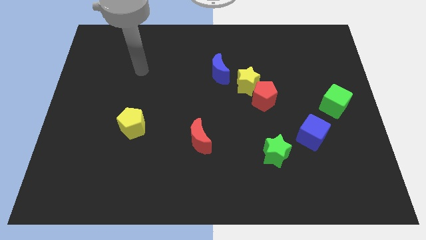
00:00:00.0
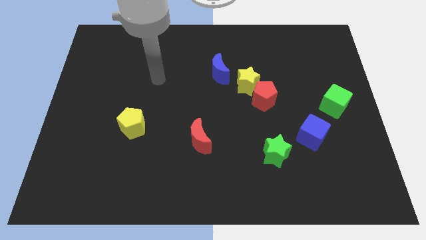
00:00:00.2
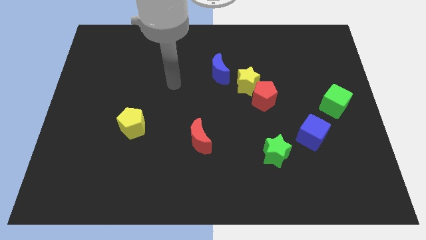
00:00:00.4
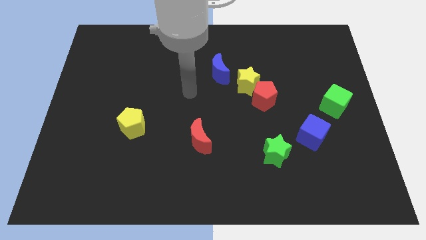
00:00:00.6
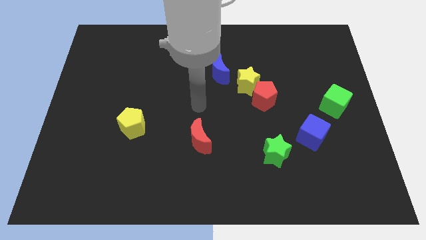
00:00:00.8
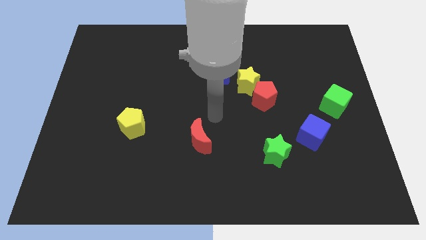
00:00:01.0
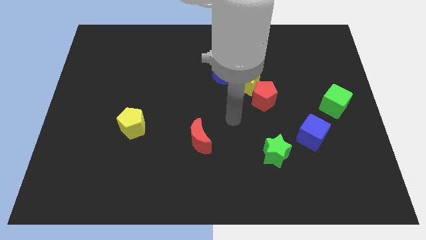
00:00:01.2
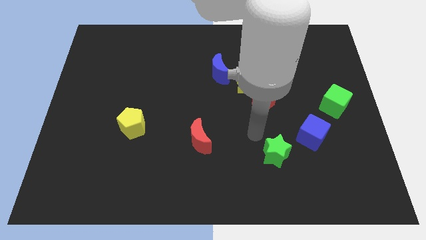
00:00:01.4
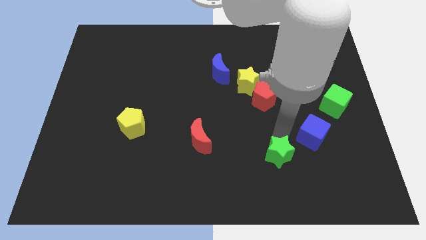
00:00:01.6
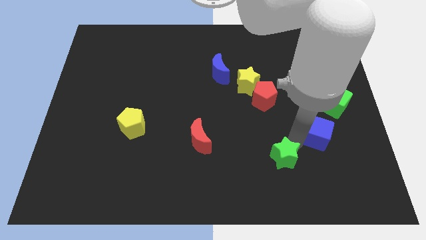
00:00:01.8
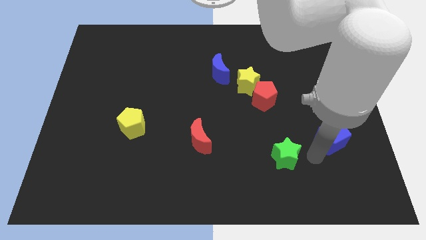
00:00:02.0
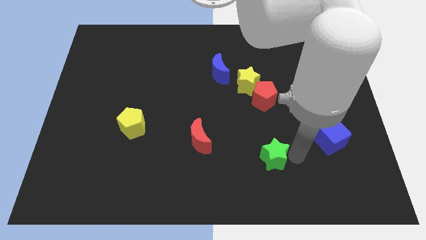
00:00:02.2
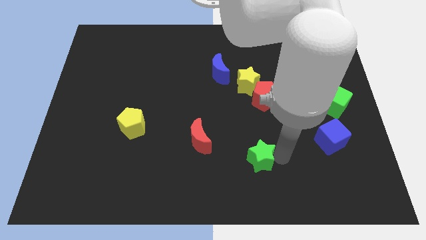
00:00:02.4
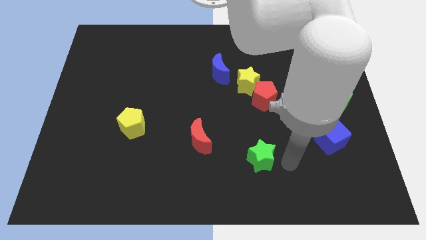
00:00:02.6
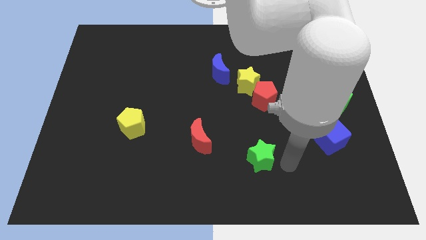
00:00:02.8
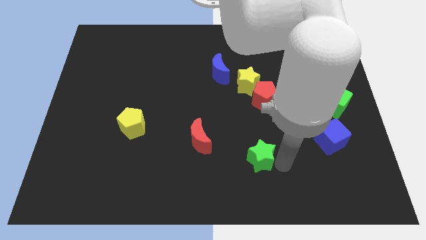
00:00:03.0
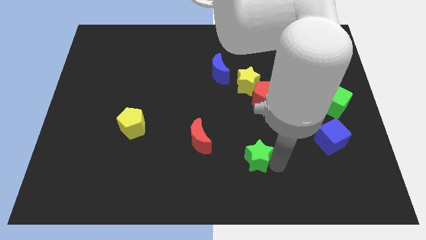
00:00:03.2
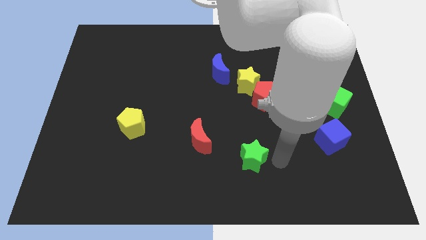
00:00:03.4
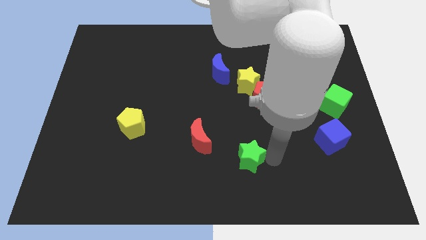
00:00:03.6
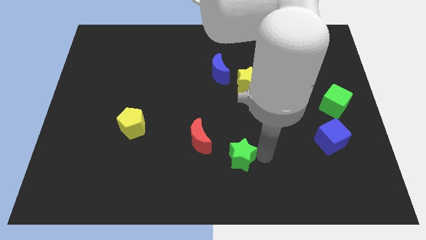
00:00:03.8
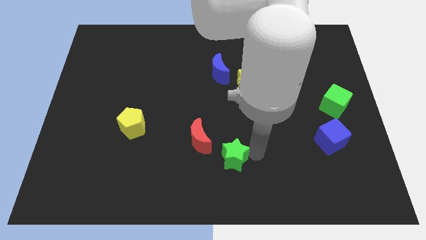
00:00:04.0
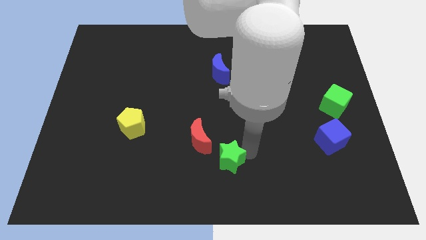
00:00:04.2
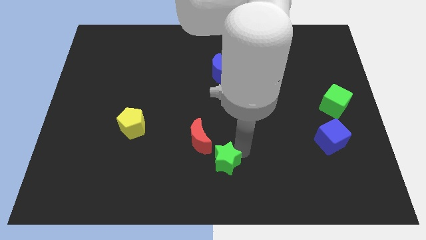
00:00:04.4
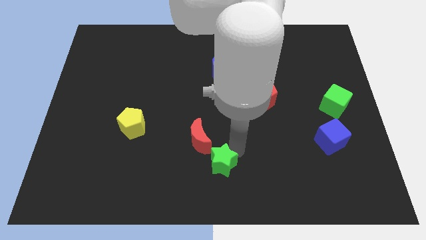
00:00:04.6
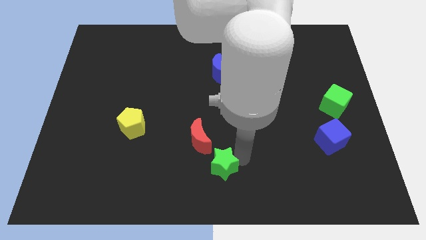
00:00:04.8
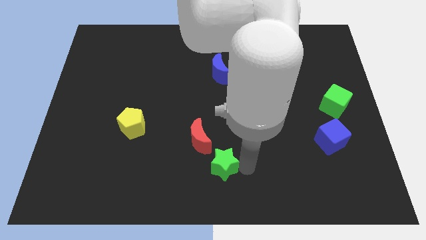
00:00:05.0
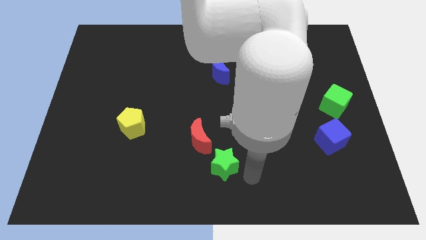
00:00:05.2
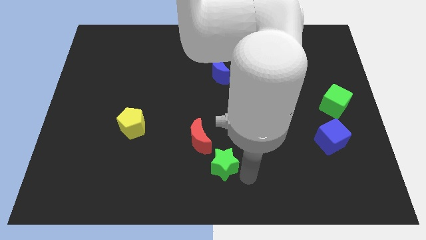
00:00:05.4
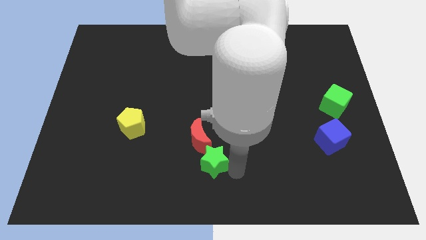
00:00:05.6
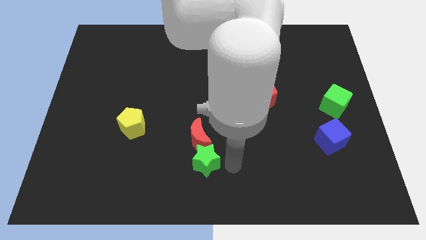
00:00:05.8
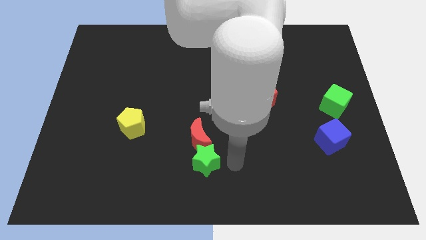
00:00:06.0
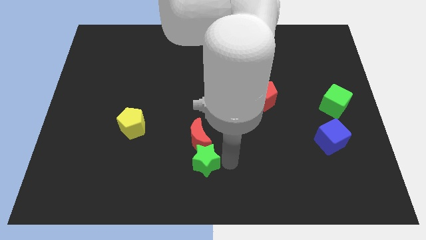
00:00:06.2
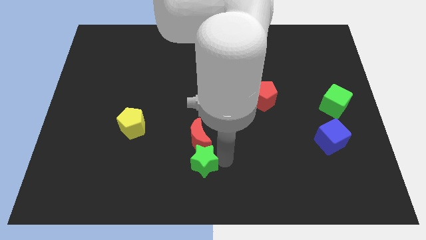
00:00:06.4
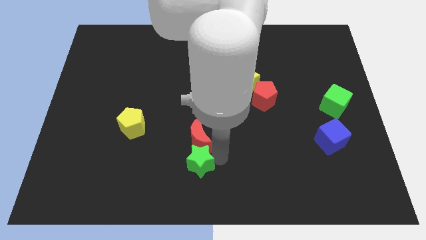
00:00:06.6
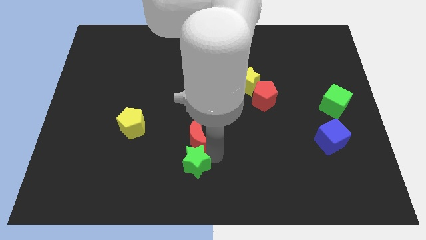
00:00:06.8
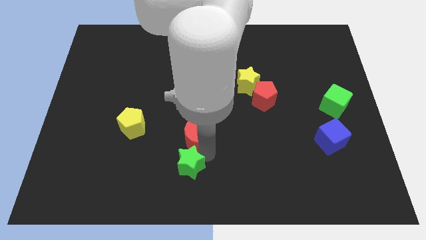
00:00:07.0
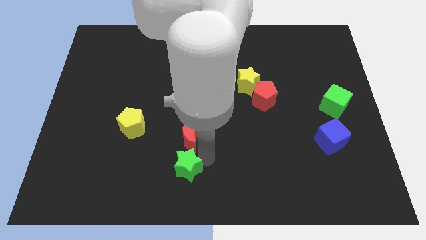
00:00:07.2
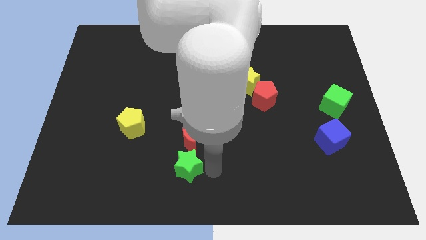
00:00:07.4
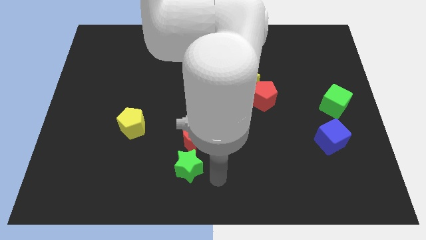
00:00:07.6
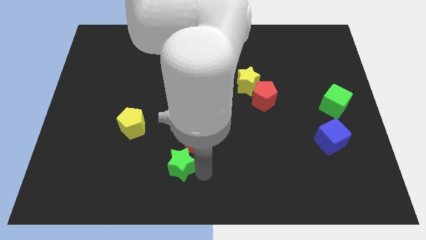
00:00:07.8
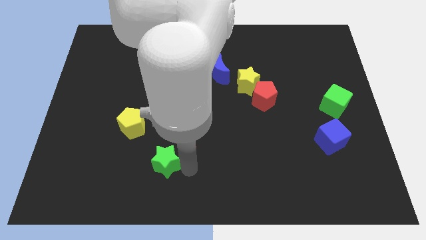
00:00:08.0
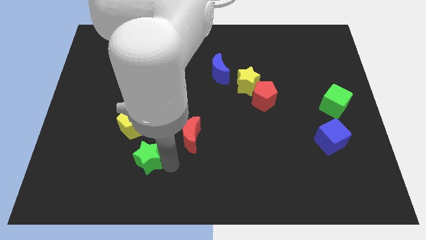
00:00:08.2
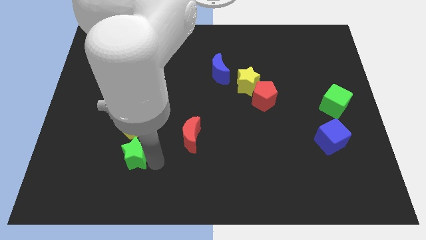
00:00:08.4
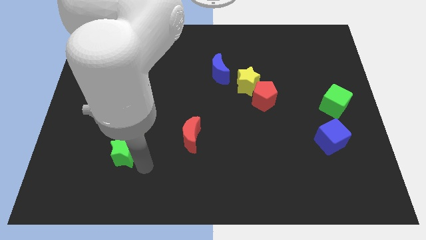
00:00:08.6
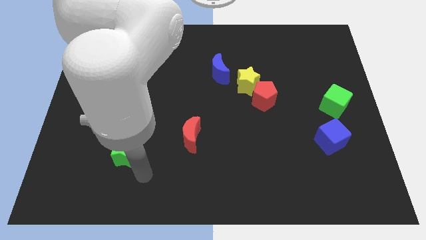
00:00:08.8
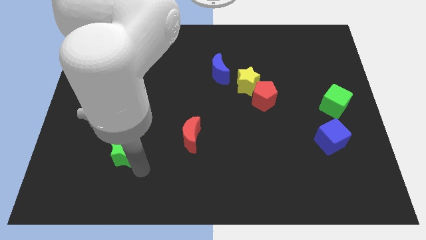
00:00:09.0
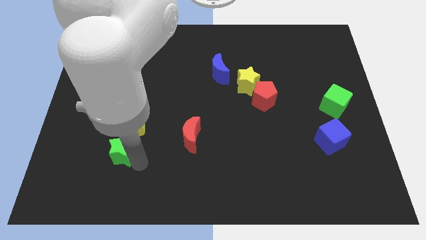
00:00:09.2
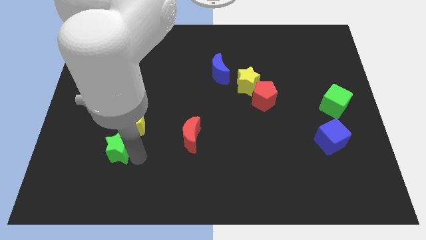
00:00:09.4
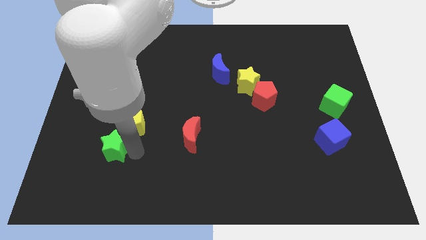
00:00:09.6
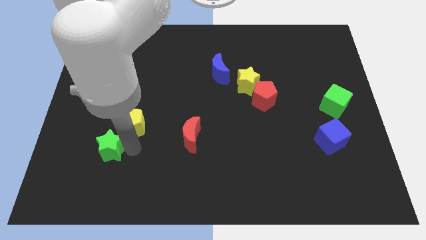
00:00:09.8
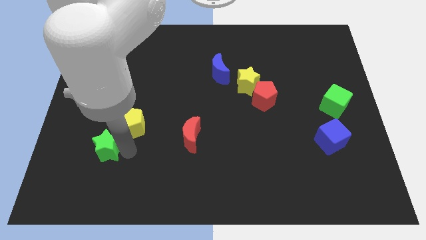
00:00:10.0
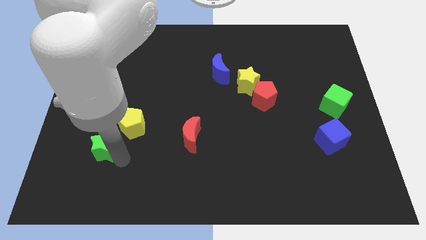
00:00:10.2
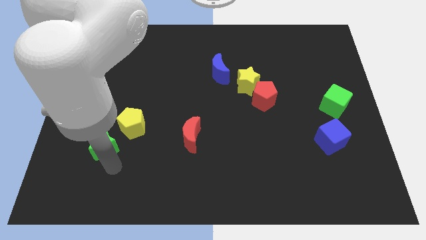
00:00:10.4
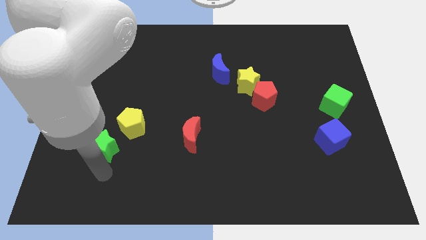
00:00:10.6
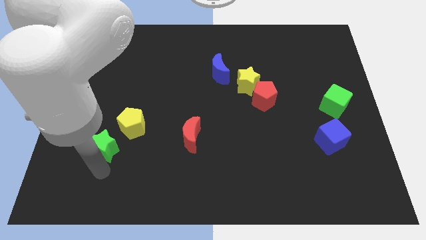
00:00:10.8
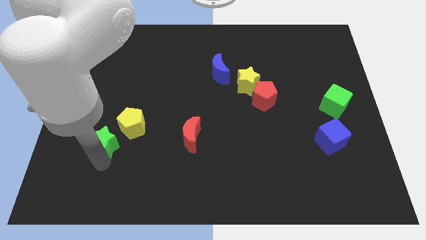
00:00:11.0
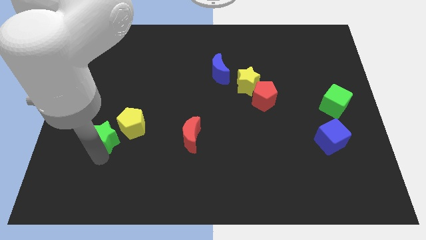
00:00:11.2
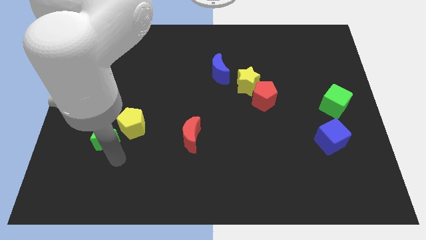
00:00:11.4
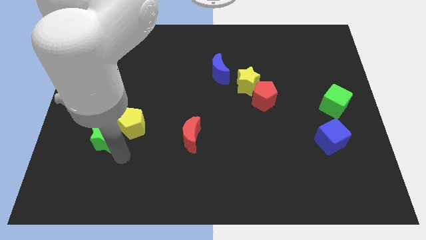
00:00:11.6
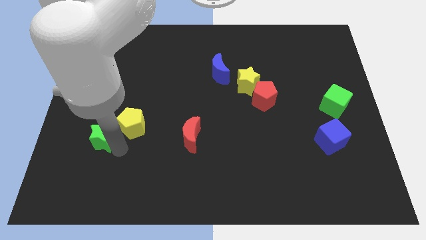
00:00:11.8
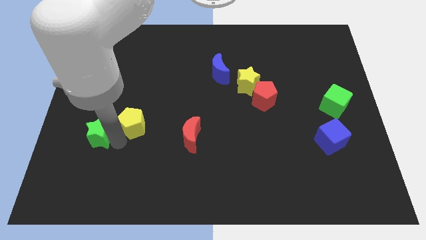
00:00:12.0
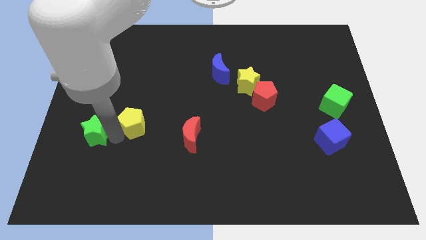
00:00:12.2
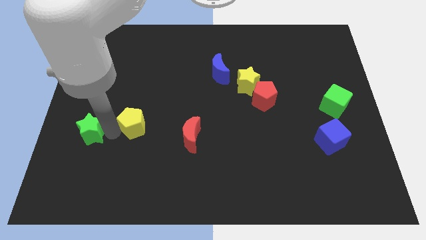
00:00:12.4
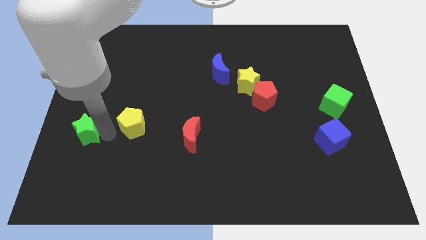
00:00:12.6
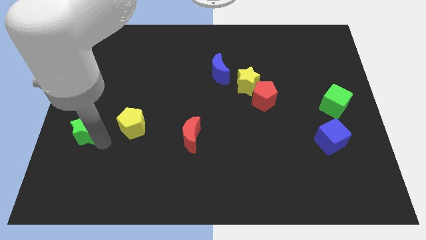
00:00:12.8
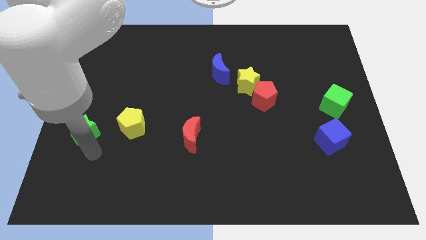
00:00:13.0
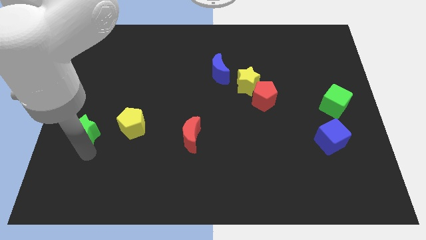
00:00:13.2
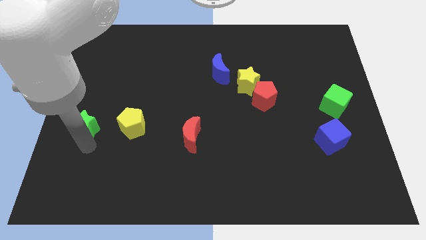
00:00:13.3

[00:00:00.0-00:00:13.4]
push the green star to the left side
